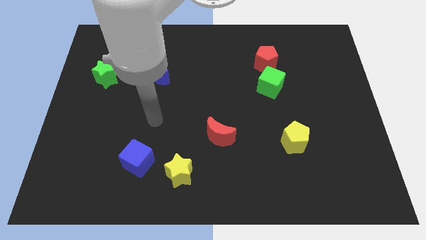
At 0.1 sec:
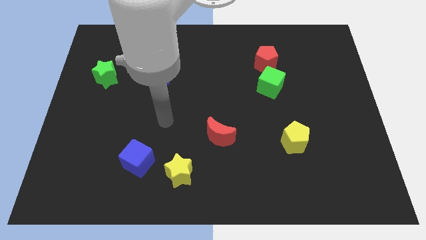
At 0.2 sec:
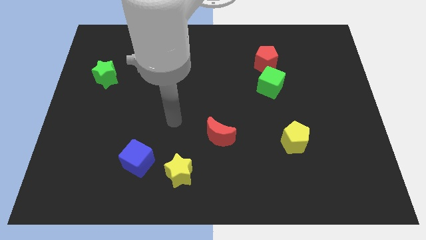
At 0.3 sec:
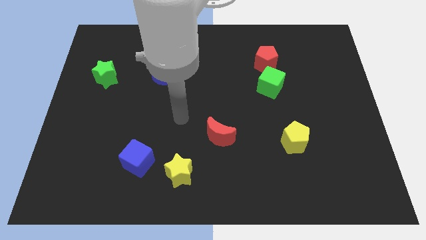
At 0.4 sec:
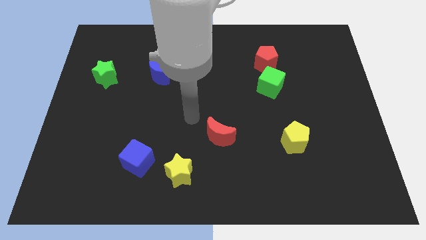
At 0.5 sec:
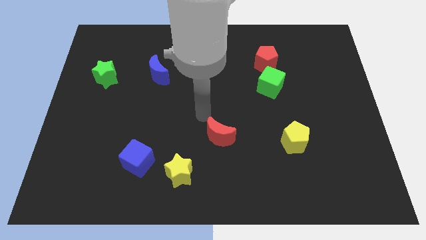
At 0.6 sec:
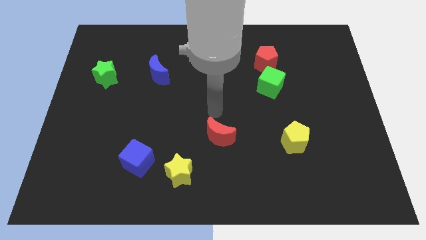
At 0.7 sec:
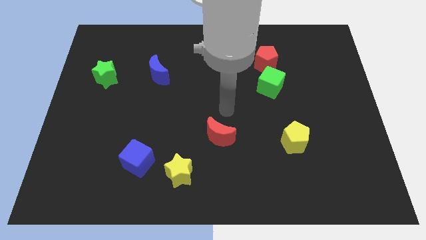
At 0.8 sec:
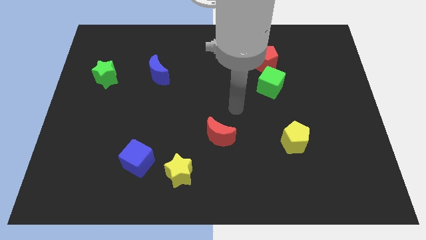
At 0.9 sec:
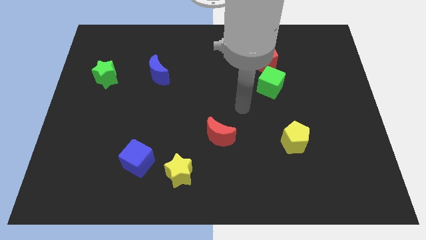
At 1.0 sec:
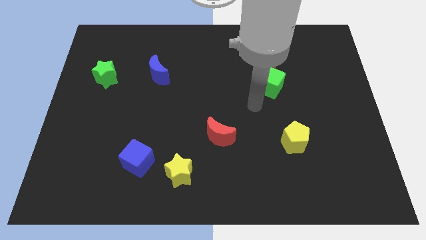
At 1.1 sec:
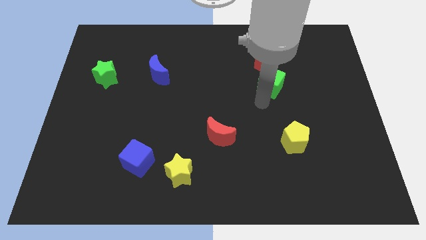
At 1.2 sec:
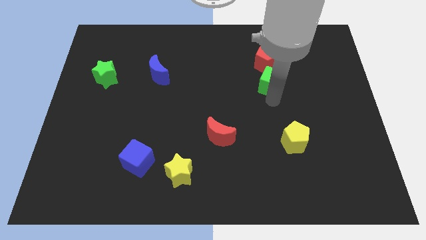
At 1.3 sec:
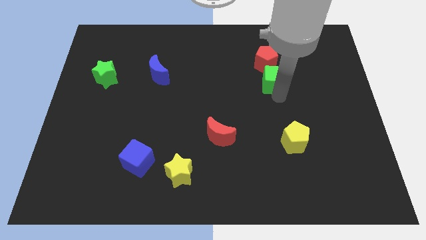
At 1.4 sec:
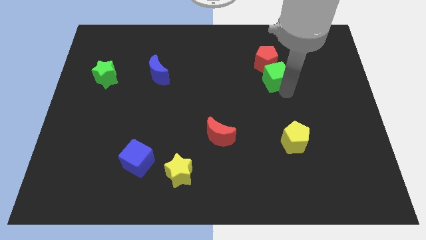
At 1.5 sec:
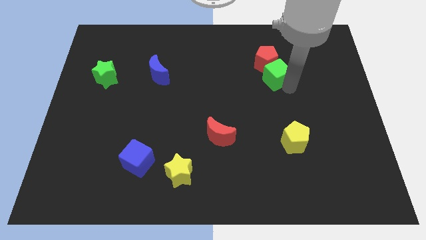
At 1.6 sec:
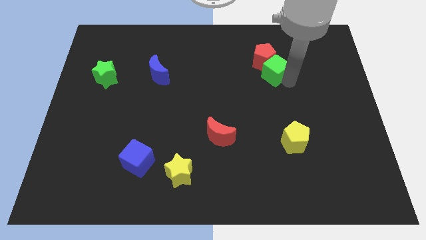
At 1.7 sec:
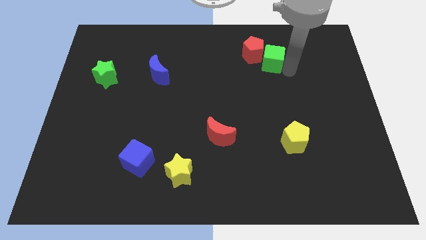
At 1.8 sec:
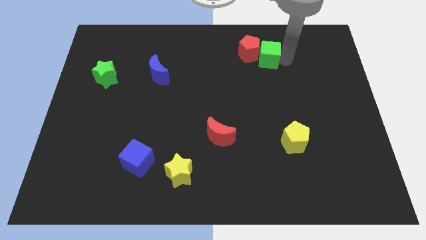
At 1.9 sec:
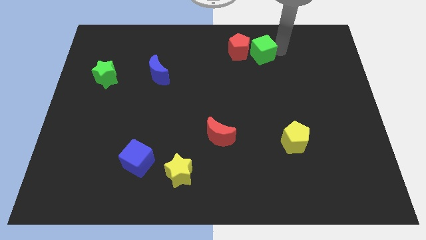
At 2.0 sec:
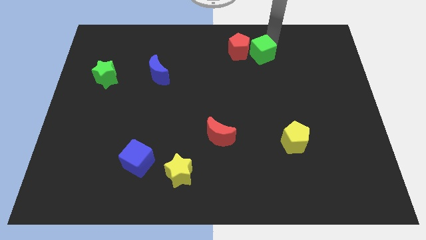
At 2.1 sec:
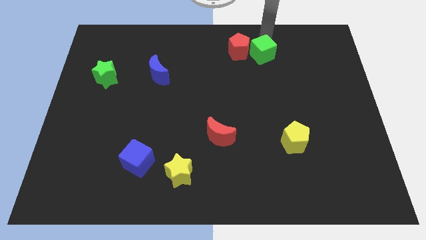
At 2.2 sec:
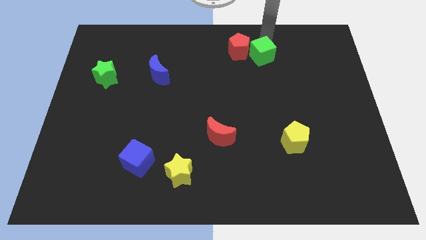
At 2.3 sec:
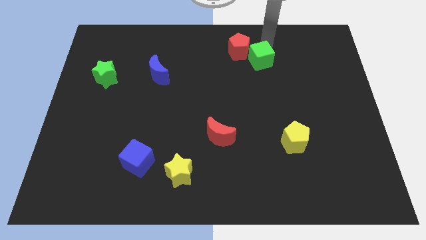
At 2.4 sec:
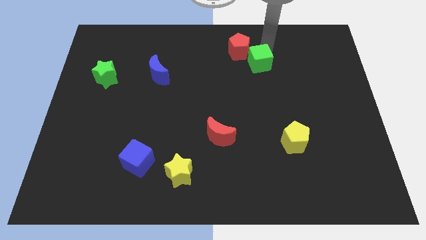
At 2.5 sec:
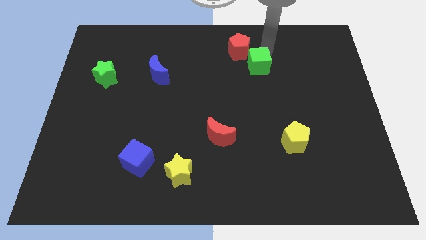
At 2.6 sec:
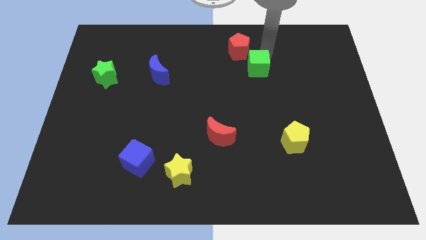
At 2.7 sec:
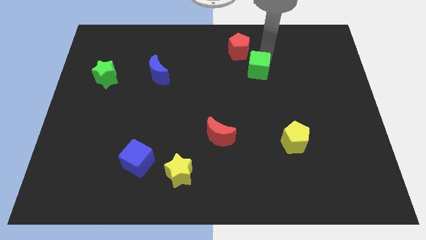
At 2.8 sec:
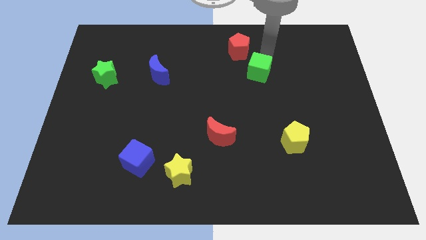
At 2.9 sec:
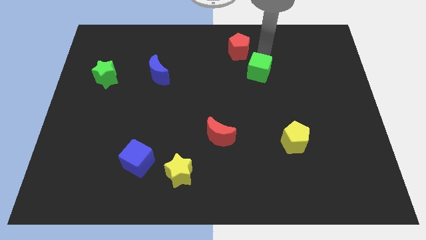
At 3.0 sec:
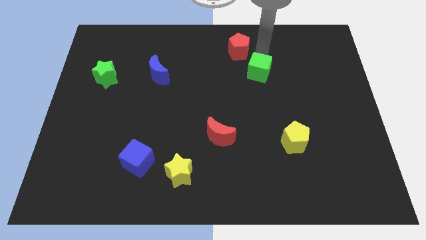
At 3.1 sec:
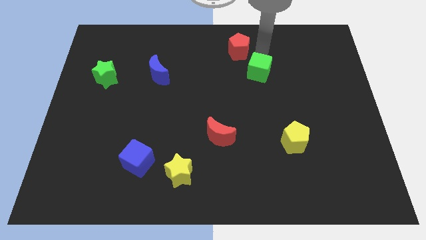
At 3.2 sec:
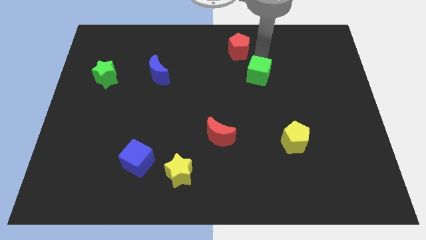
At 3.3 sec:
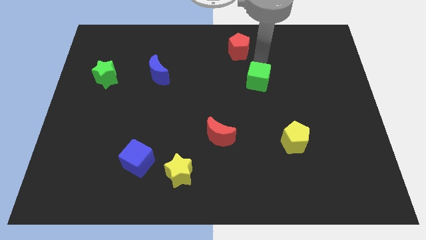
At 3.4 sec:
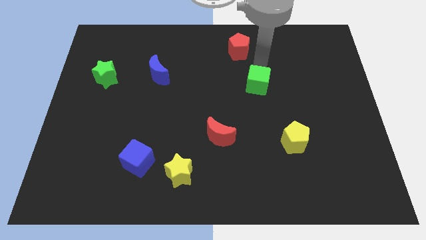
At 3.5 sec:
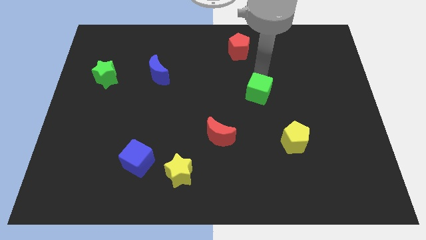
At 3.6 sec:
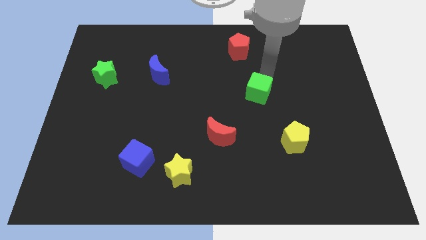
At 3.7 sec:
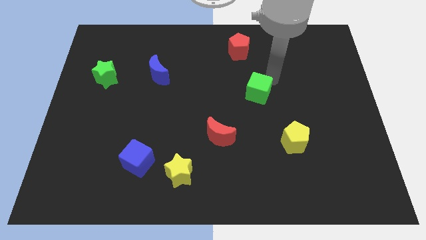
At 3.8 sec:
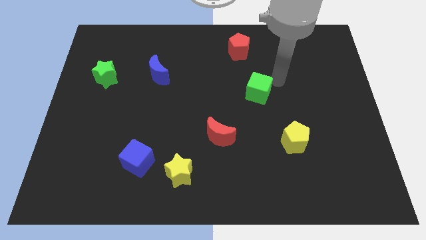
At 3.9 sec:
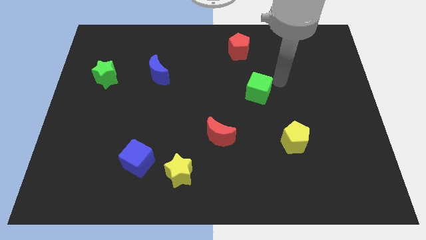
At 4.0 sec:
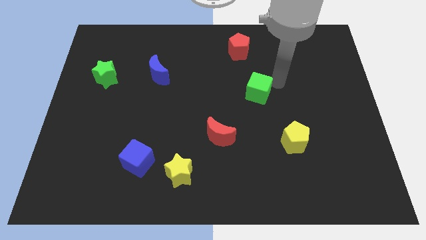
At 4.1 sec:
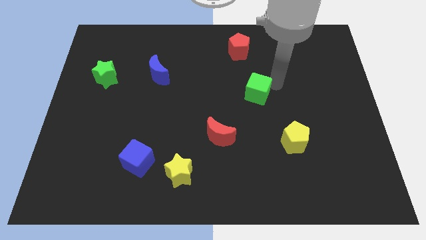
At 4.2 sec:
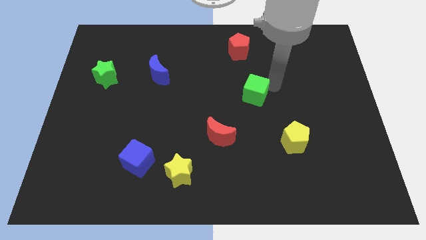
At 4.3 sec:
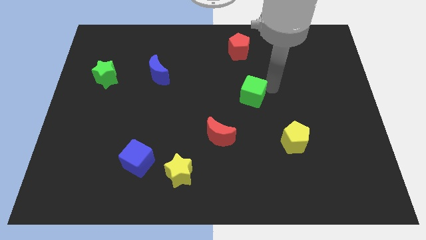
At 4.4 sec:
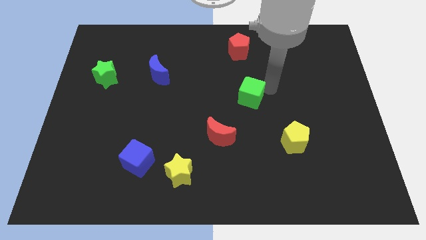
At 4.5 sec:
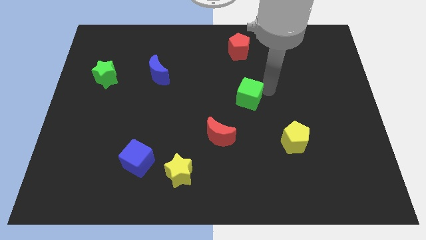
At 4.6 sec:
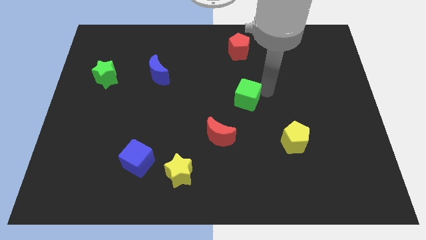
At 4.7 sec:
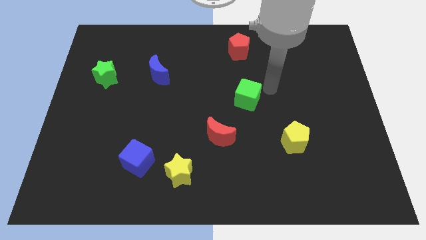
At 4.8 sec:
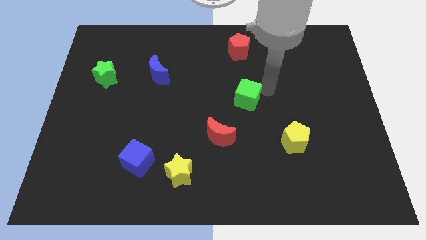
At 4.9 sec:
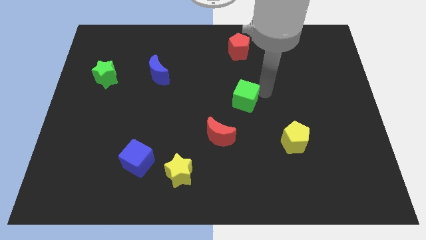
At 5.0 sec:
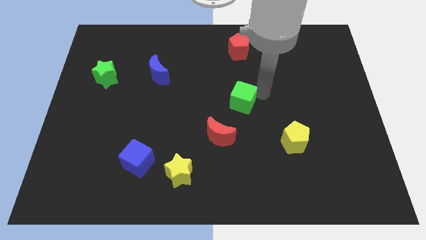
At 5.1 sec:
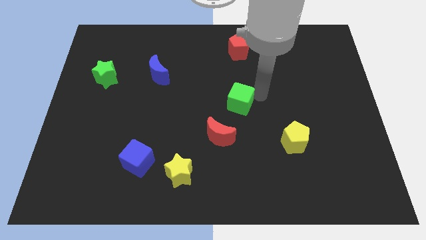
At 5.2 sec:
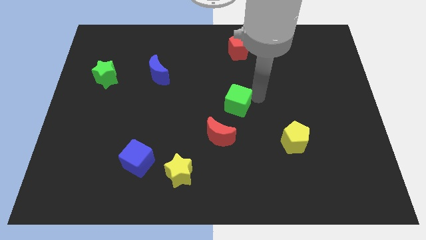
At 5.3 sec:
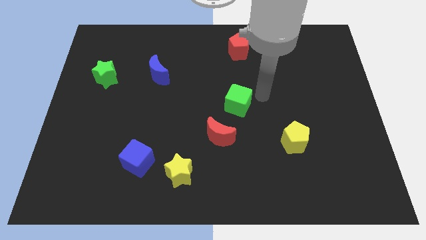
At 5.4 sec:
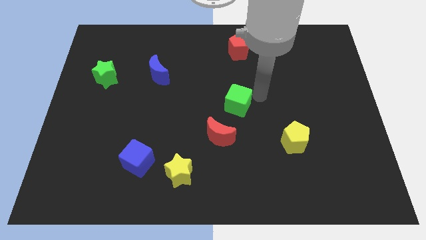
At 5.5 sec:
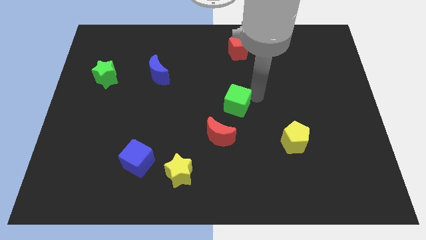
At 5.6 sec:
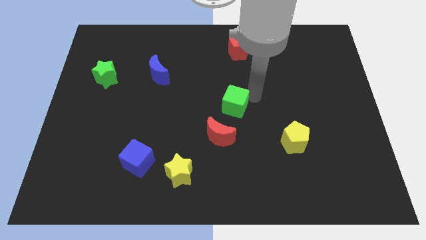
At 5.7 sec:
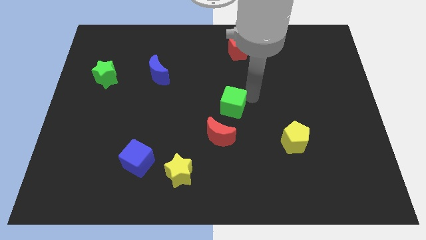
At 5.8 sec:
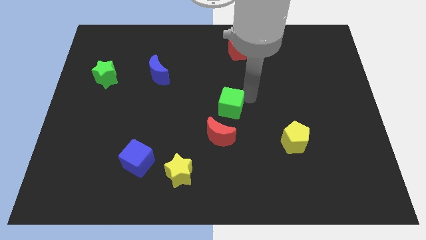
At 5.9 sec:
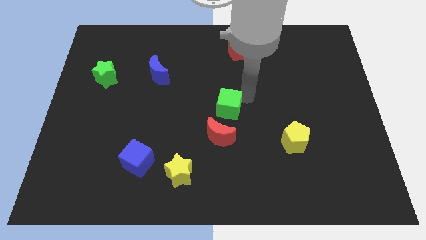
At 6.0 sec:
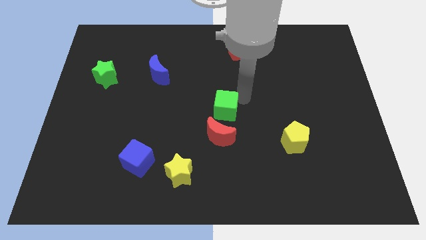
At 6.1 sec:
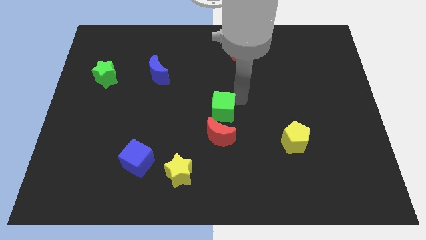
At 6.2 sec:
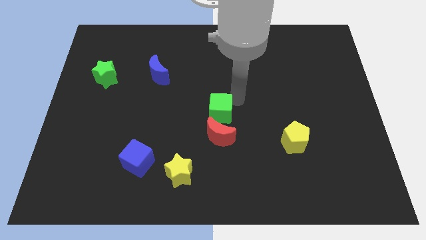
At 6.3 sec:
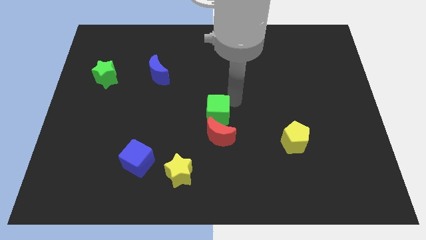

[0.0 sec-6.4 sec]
put the green cube to the top left side of the red moon
